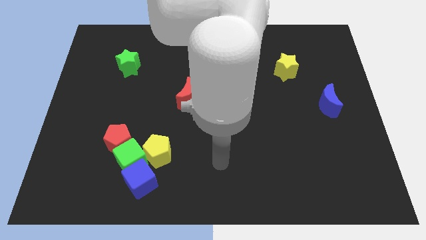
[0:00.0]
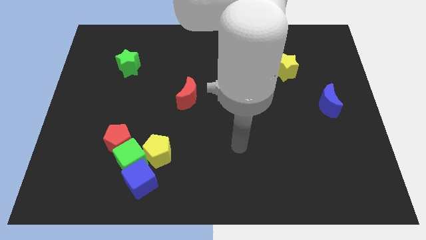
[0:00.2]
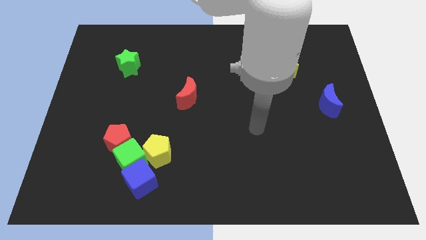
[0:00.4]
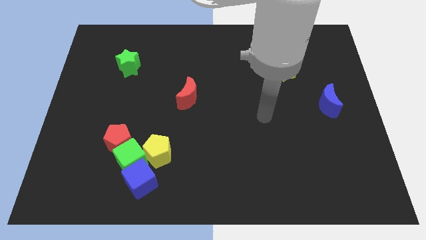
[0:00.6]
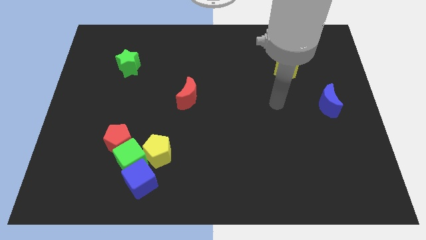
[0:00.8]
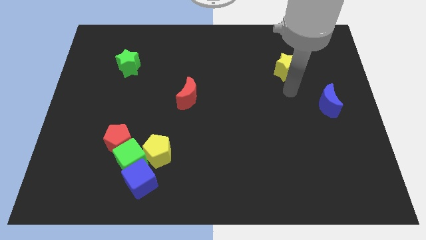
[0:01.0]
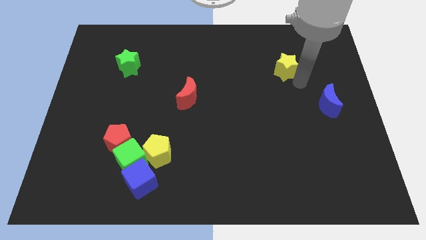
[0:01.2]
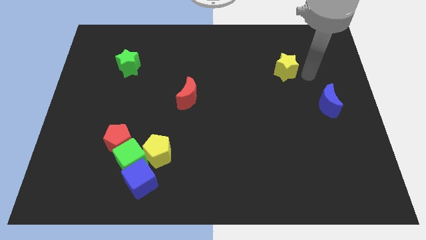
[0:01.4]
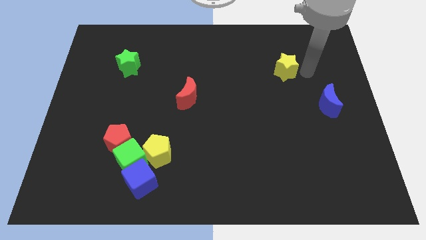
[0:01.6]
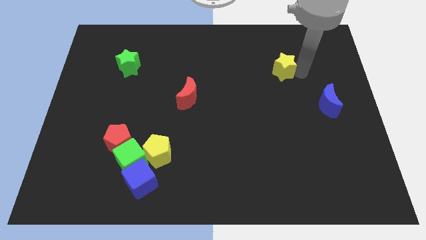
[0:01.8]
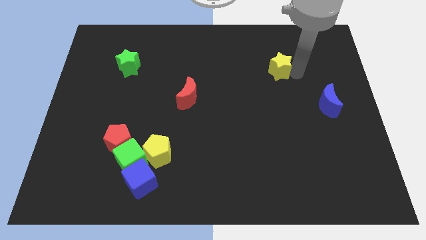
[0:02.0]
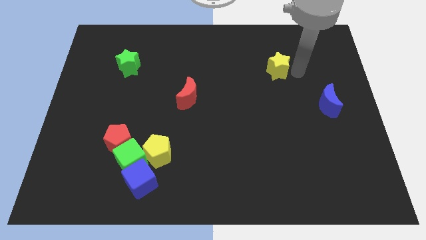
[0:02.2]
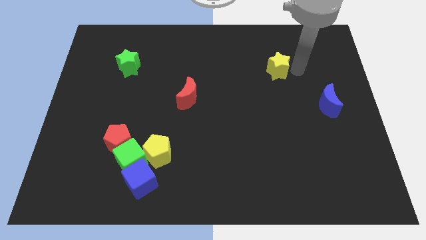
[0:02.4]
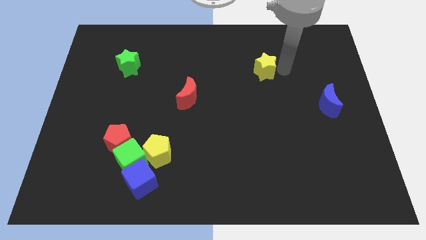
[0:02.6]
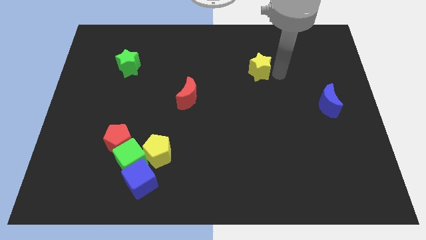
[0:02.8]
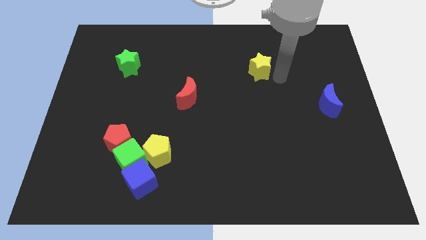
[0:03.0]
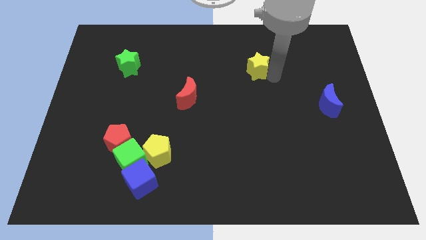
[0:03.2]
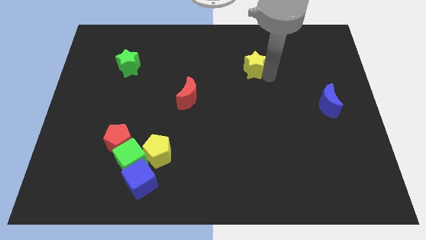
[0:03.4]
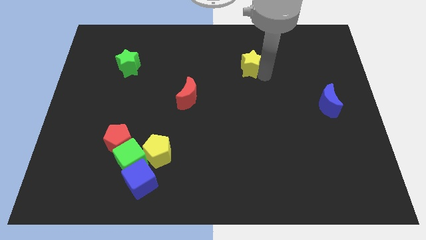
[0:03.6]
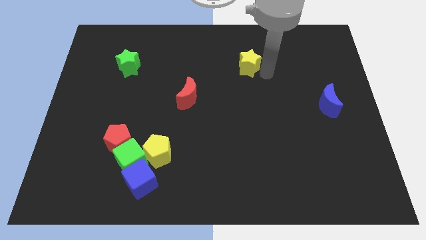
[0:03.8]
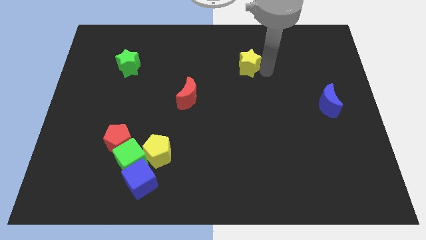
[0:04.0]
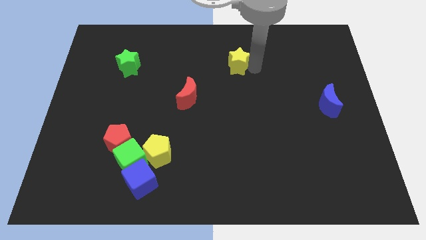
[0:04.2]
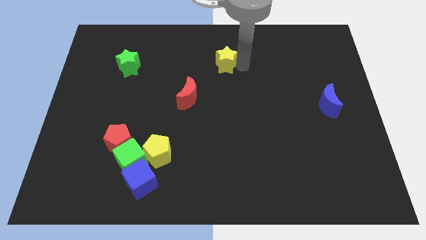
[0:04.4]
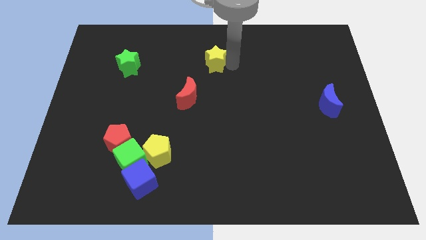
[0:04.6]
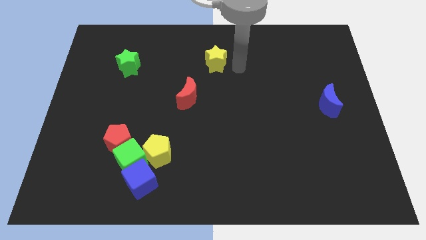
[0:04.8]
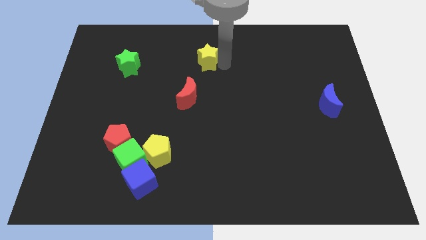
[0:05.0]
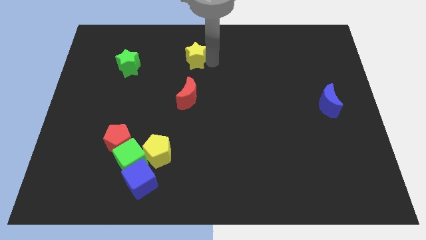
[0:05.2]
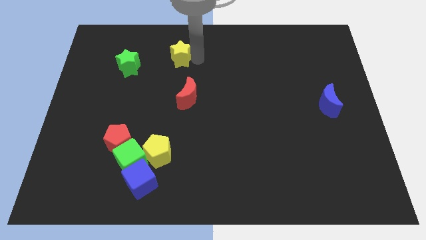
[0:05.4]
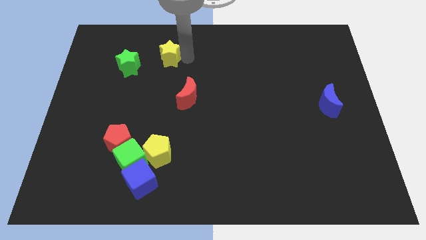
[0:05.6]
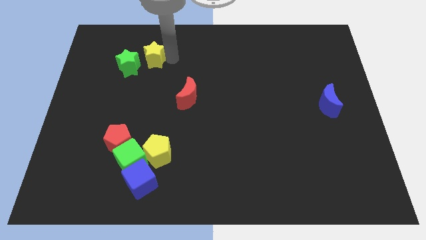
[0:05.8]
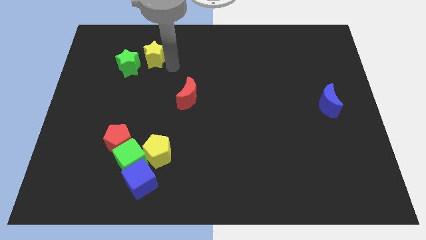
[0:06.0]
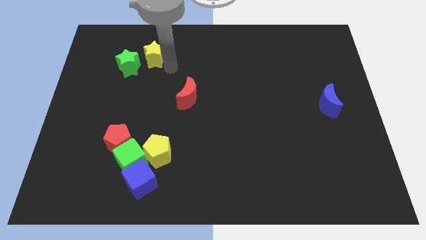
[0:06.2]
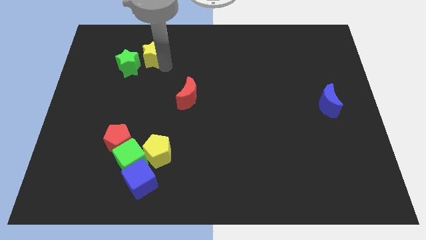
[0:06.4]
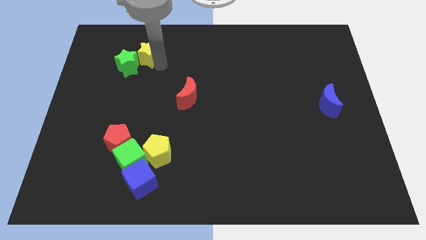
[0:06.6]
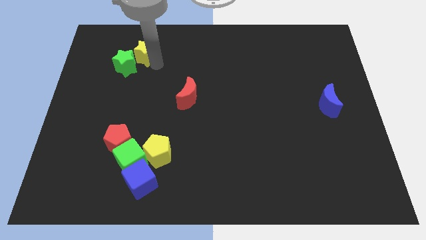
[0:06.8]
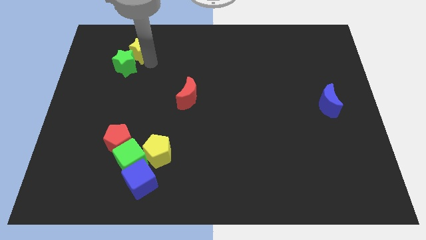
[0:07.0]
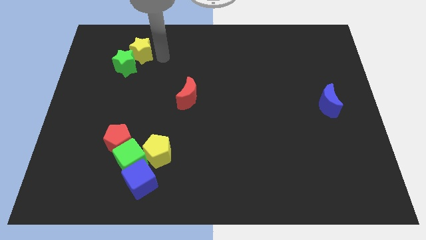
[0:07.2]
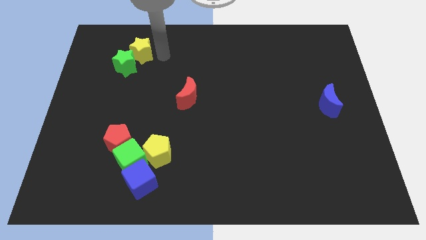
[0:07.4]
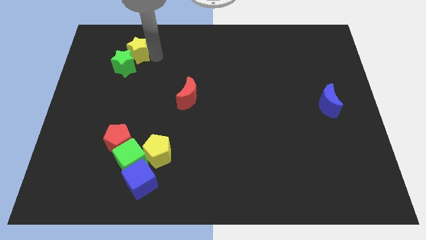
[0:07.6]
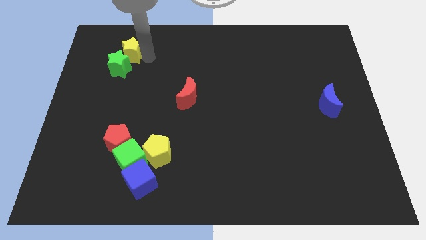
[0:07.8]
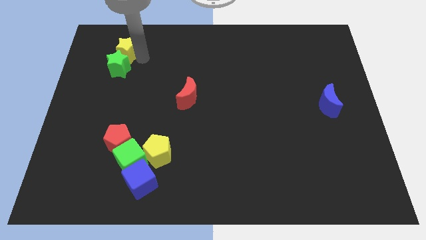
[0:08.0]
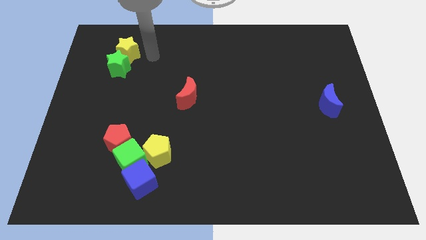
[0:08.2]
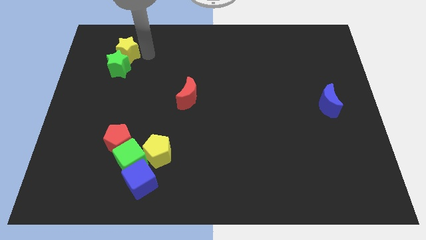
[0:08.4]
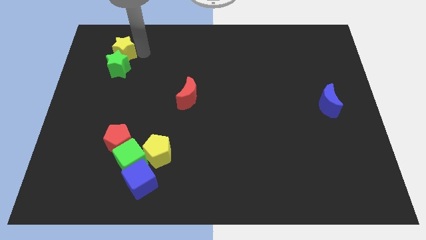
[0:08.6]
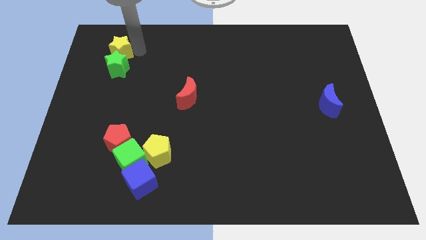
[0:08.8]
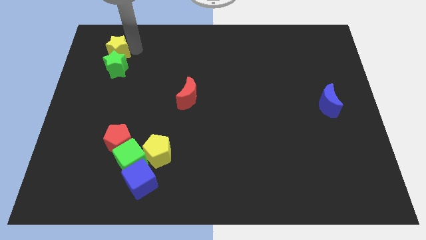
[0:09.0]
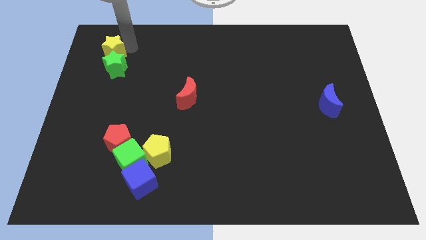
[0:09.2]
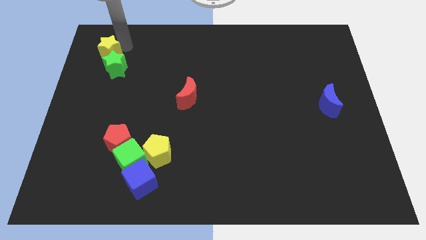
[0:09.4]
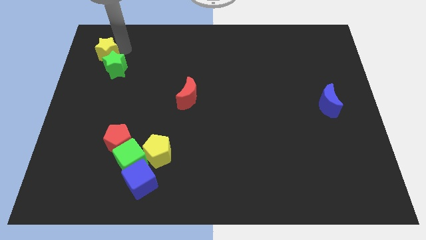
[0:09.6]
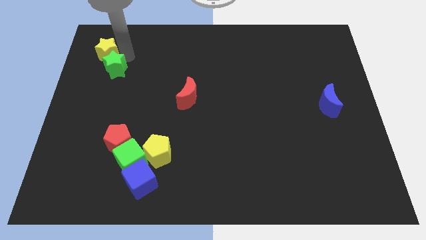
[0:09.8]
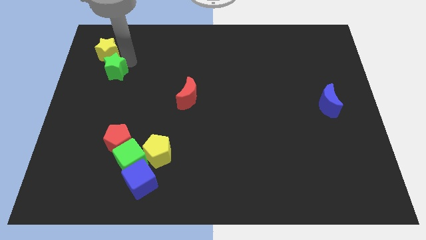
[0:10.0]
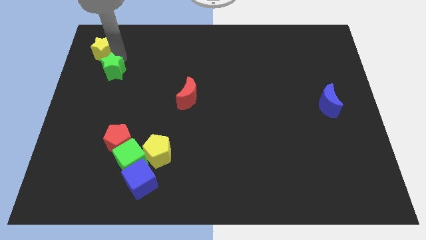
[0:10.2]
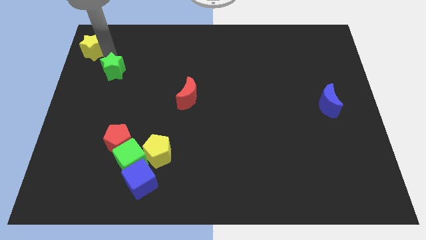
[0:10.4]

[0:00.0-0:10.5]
put the yellow star to the top left

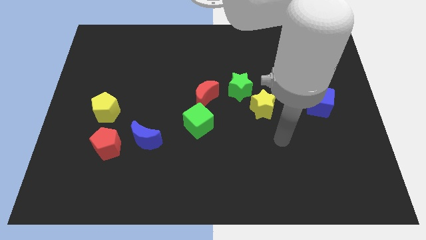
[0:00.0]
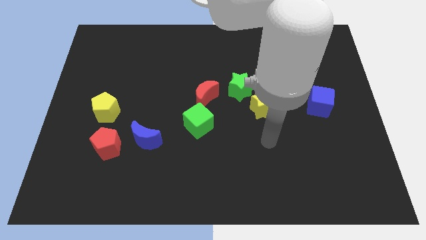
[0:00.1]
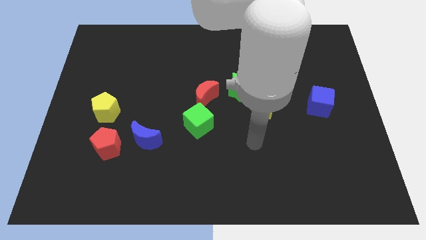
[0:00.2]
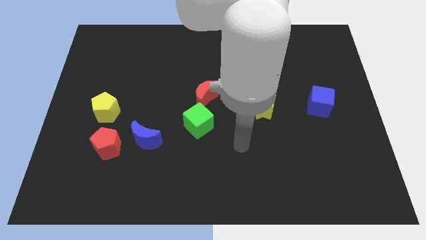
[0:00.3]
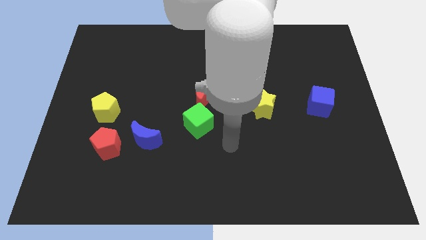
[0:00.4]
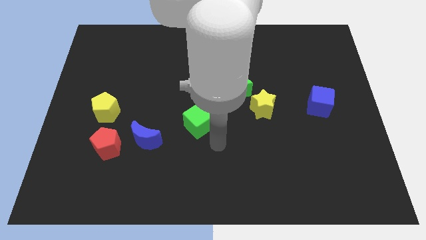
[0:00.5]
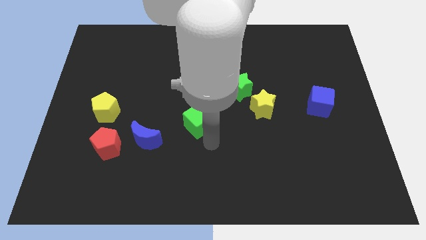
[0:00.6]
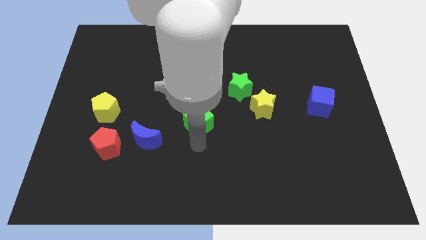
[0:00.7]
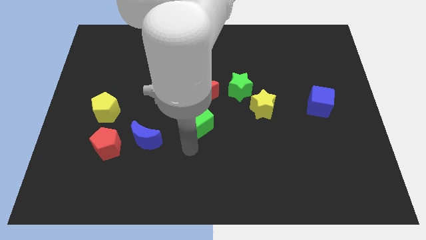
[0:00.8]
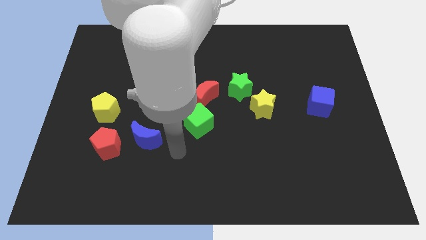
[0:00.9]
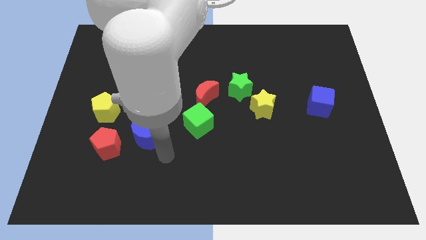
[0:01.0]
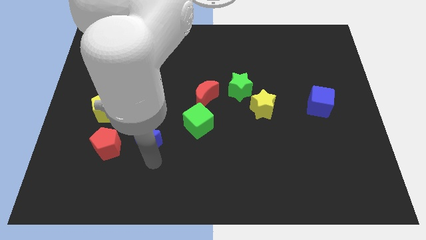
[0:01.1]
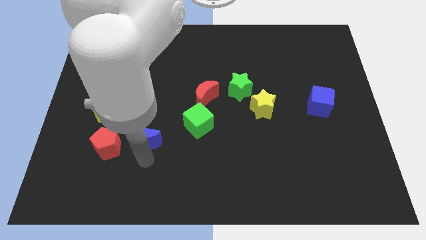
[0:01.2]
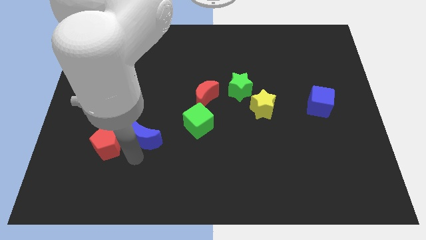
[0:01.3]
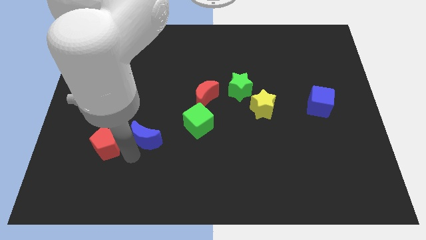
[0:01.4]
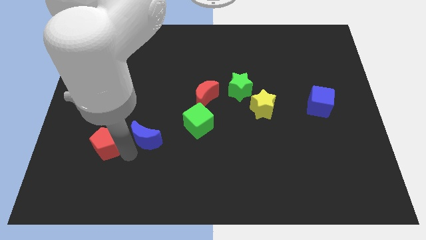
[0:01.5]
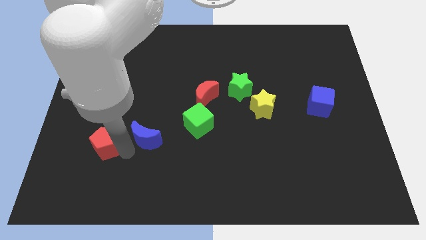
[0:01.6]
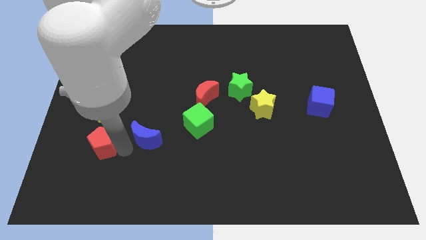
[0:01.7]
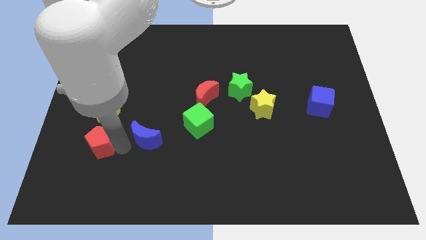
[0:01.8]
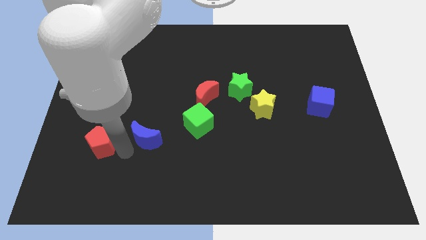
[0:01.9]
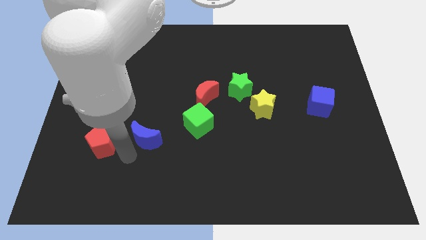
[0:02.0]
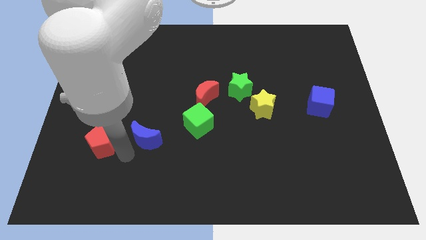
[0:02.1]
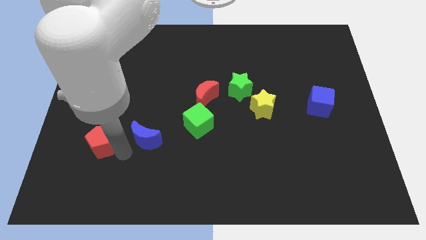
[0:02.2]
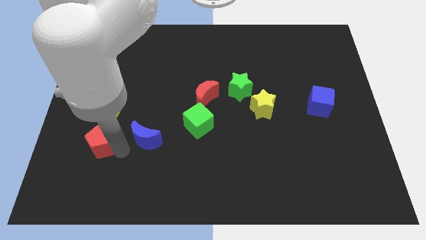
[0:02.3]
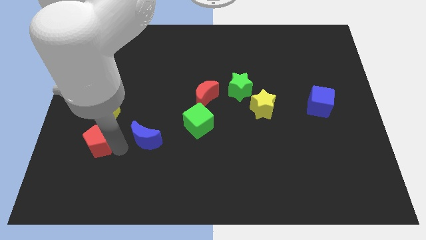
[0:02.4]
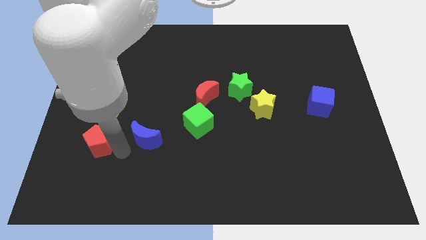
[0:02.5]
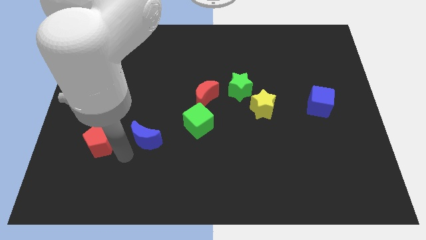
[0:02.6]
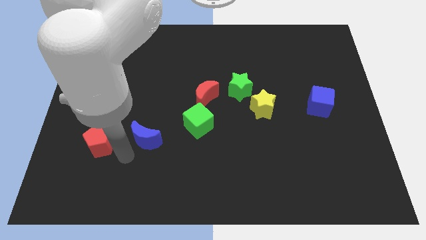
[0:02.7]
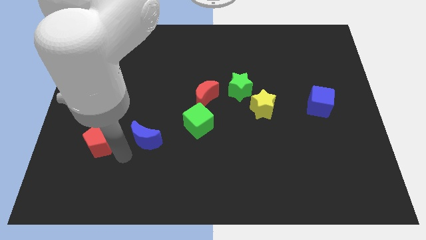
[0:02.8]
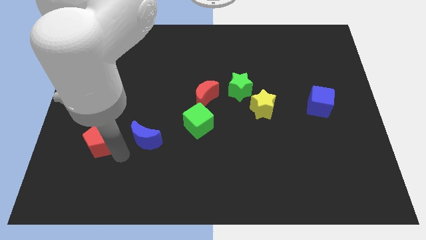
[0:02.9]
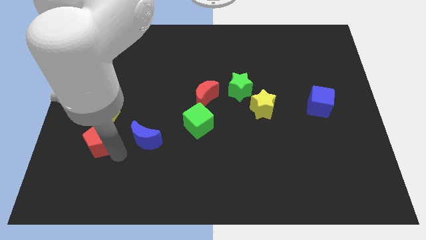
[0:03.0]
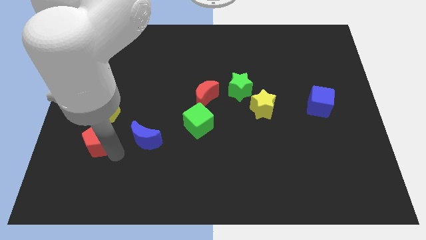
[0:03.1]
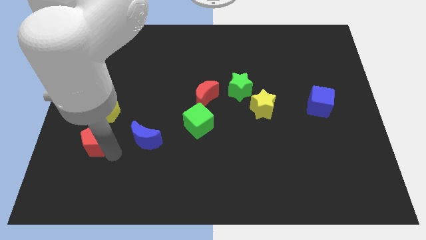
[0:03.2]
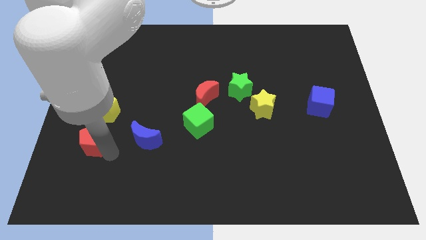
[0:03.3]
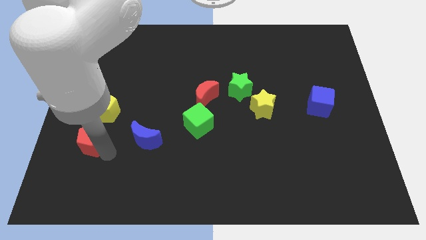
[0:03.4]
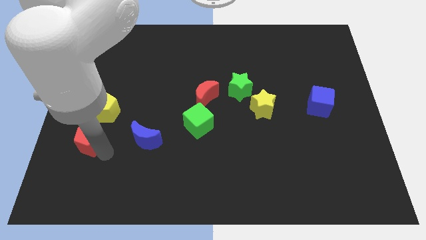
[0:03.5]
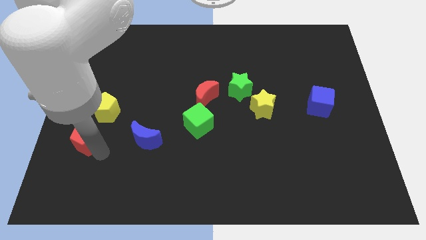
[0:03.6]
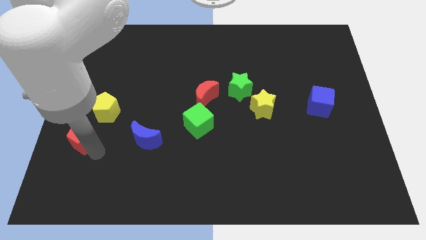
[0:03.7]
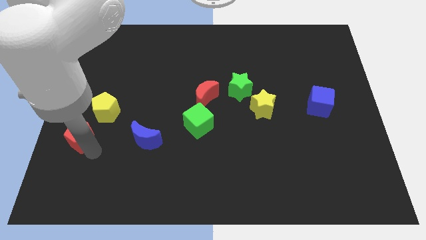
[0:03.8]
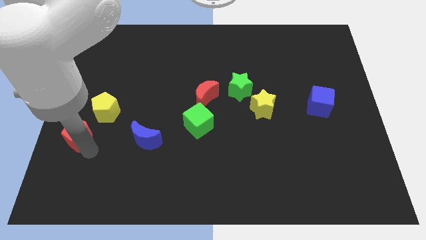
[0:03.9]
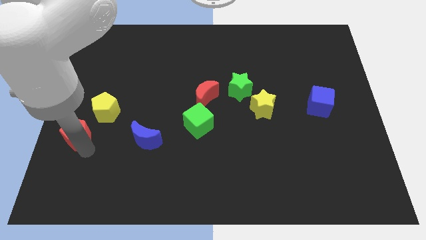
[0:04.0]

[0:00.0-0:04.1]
put the red pentagon to the left side of the board
